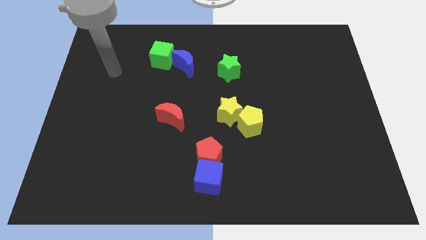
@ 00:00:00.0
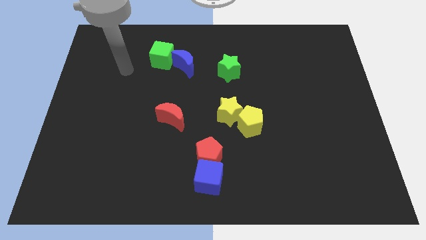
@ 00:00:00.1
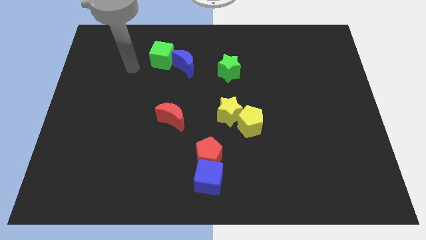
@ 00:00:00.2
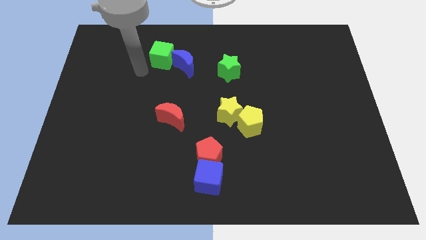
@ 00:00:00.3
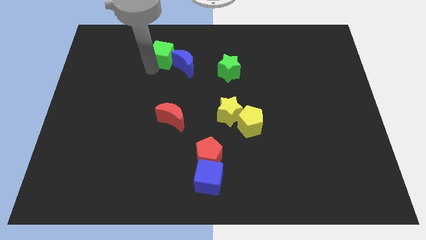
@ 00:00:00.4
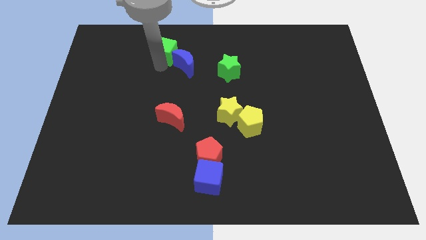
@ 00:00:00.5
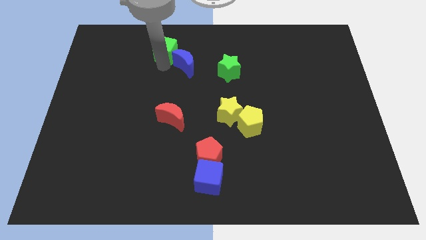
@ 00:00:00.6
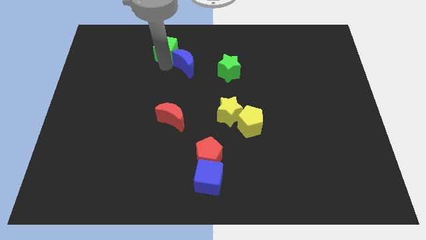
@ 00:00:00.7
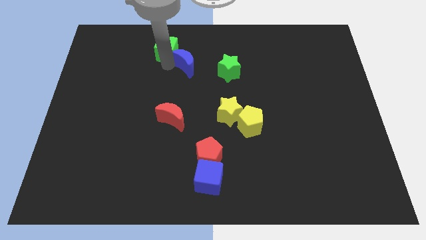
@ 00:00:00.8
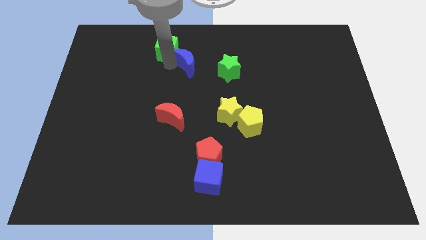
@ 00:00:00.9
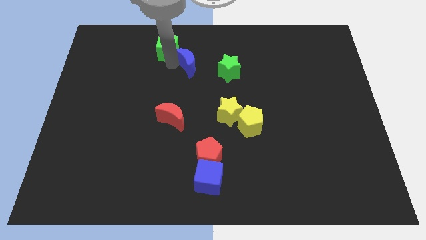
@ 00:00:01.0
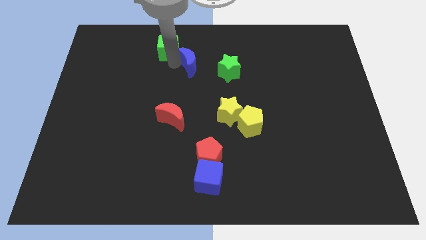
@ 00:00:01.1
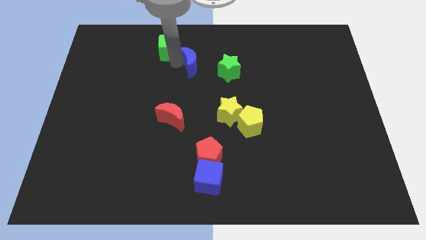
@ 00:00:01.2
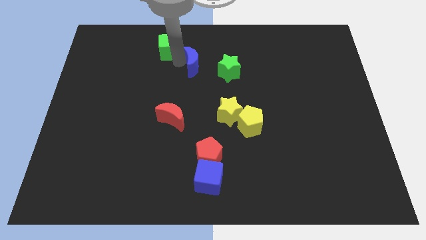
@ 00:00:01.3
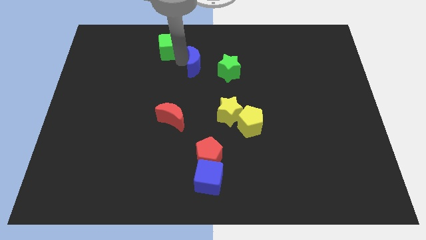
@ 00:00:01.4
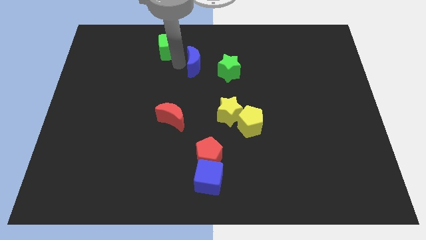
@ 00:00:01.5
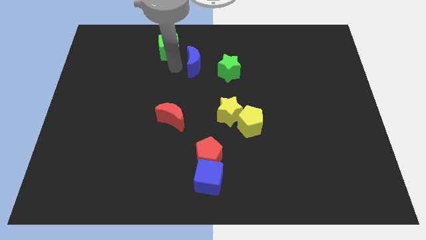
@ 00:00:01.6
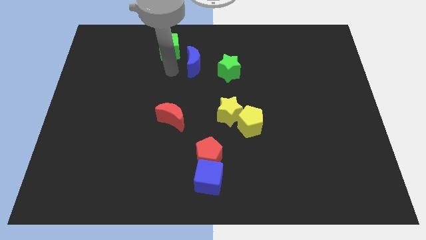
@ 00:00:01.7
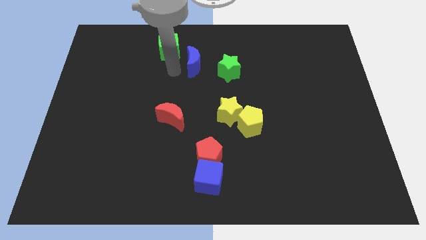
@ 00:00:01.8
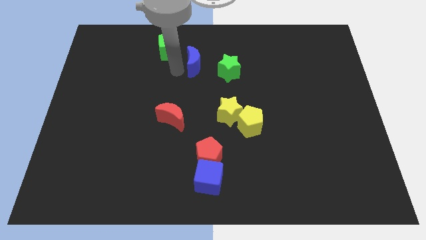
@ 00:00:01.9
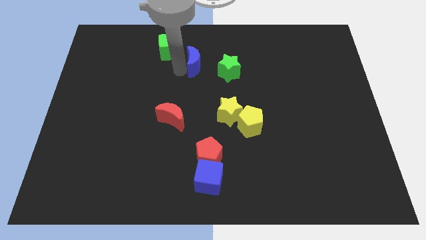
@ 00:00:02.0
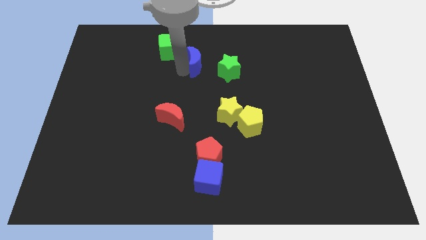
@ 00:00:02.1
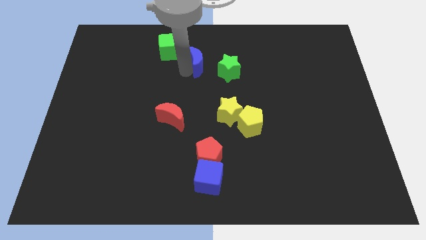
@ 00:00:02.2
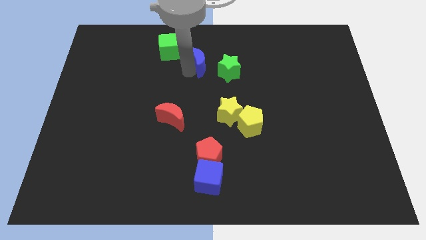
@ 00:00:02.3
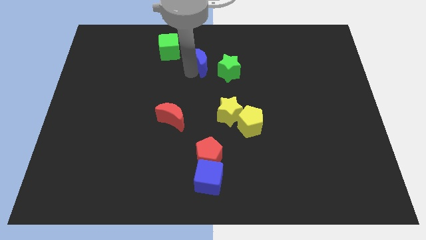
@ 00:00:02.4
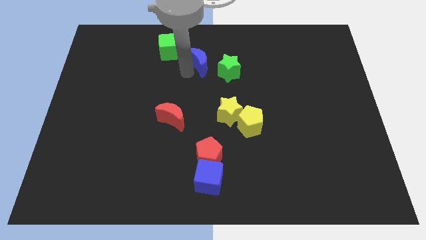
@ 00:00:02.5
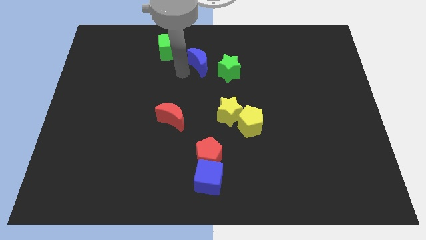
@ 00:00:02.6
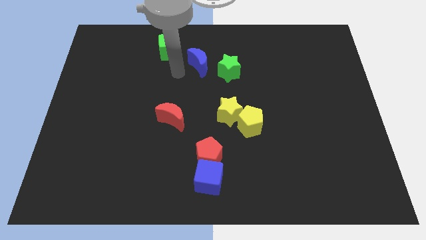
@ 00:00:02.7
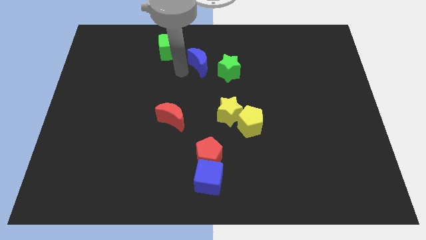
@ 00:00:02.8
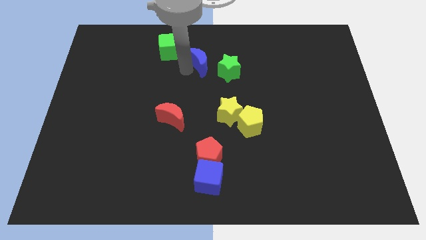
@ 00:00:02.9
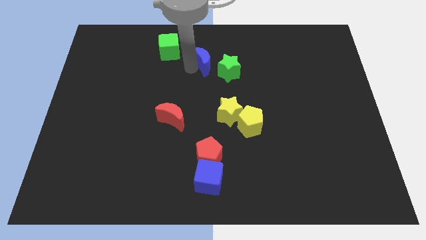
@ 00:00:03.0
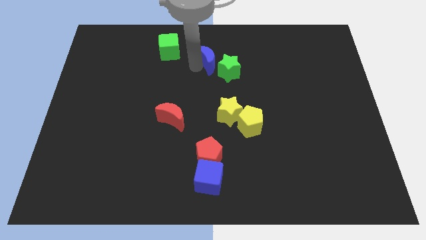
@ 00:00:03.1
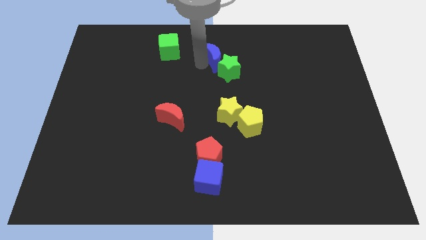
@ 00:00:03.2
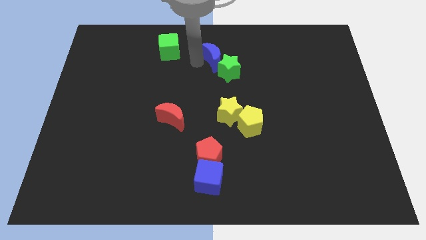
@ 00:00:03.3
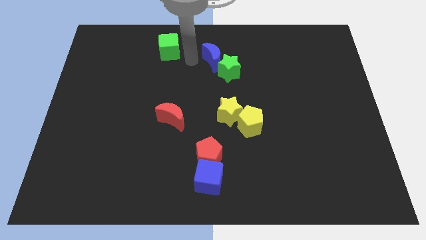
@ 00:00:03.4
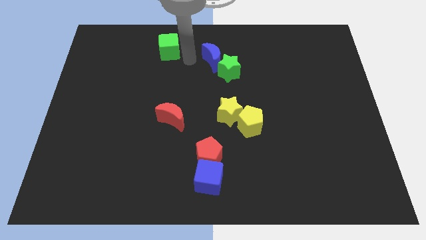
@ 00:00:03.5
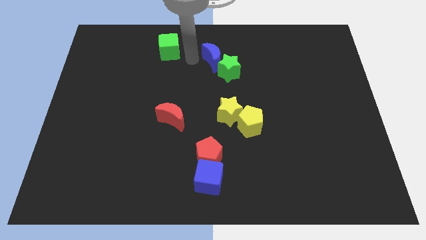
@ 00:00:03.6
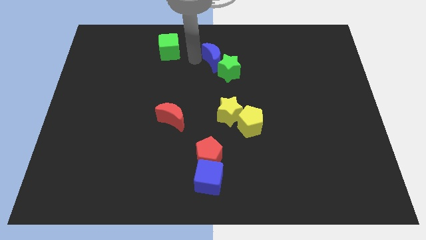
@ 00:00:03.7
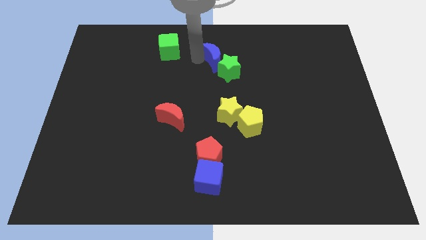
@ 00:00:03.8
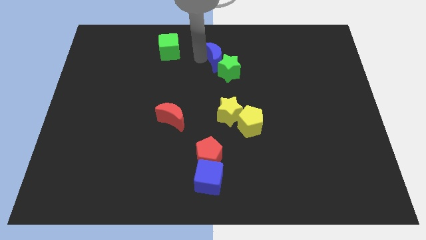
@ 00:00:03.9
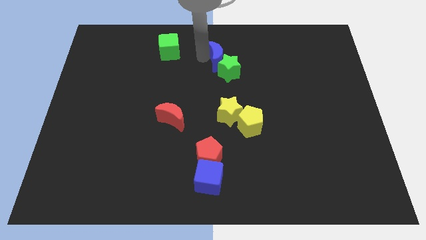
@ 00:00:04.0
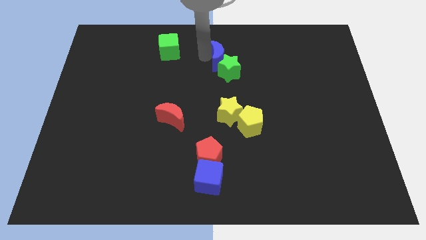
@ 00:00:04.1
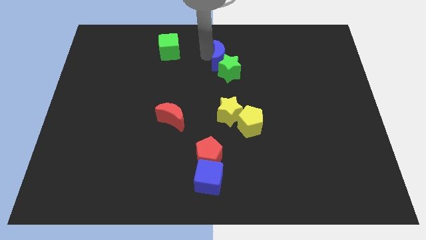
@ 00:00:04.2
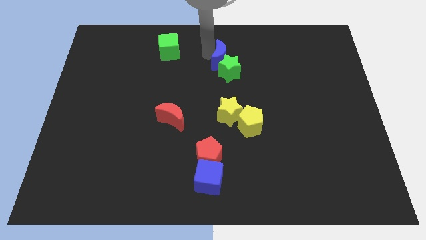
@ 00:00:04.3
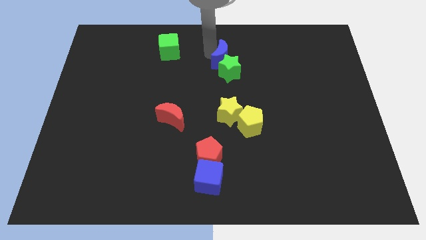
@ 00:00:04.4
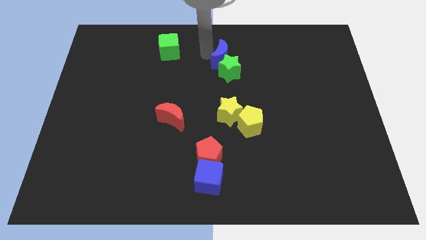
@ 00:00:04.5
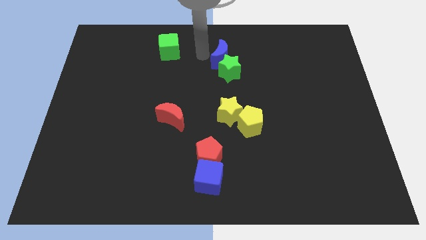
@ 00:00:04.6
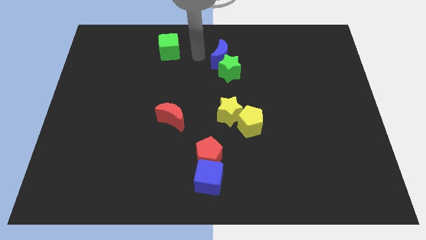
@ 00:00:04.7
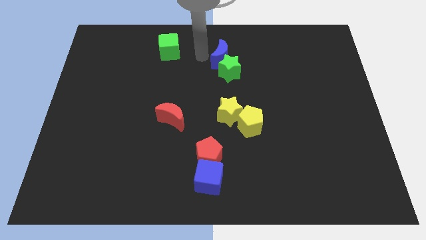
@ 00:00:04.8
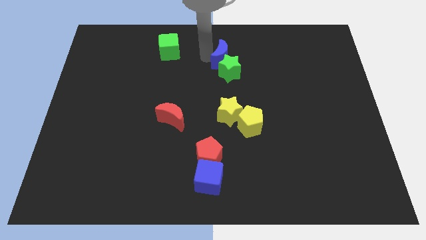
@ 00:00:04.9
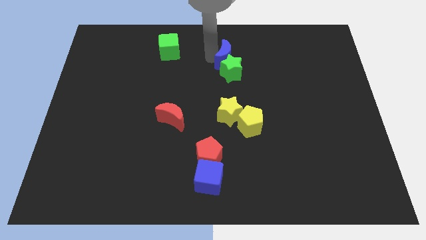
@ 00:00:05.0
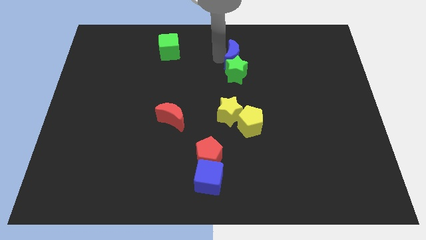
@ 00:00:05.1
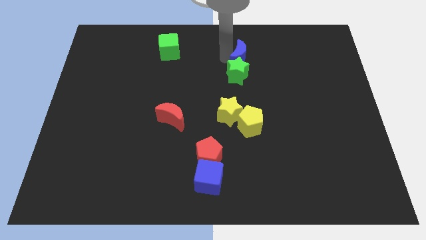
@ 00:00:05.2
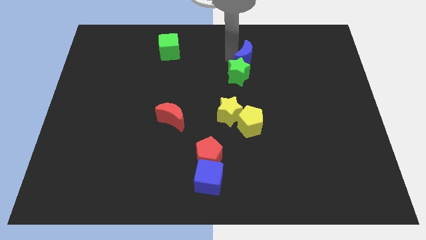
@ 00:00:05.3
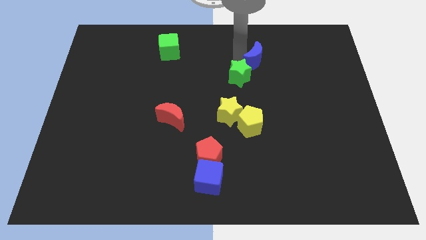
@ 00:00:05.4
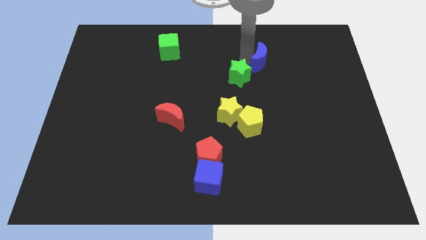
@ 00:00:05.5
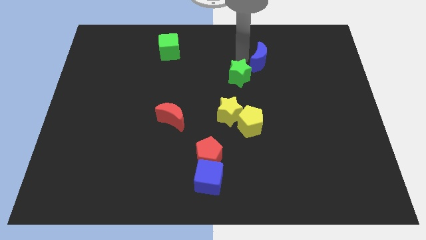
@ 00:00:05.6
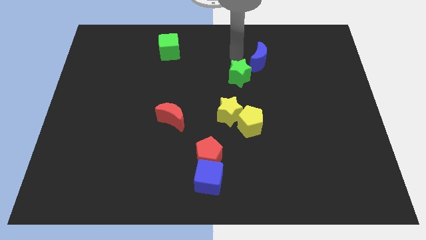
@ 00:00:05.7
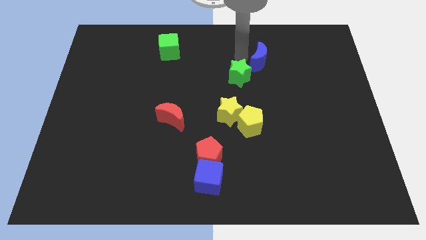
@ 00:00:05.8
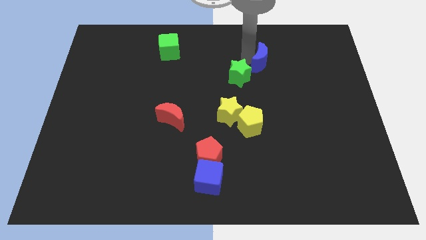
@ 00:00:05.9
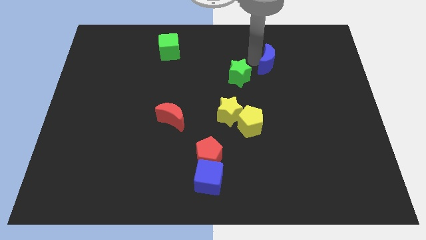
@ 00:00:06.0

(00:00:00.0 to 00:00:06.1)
move the blue moon to the right

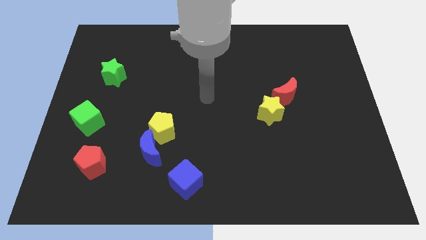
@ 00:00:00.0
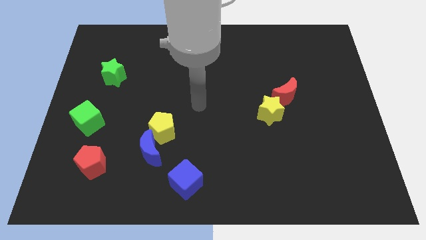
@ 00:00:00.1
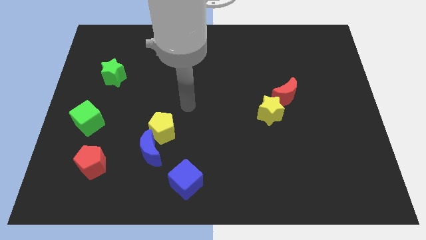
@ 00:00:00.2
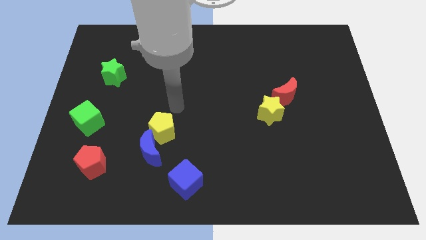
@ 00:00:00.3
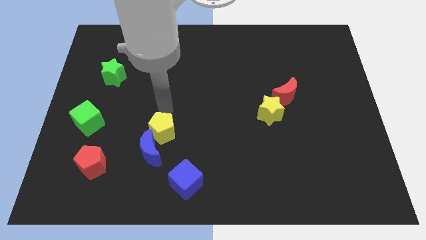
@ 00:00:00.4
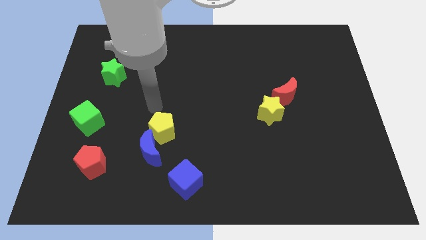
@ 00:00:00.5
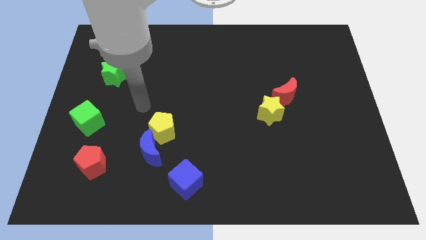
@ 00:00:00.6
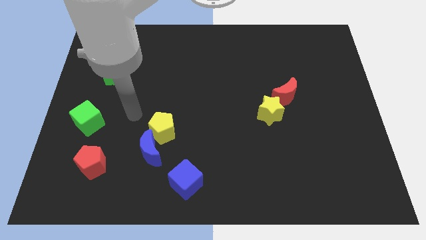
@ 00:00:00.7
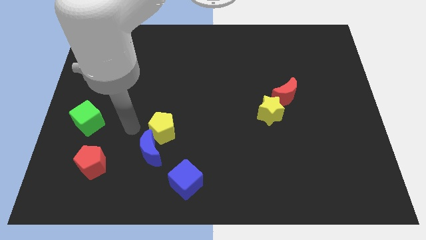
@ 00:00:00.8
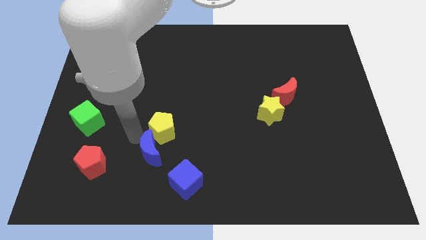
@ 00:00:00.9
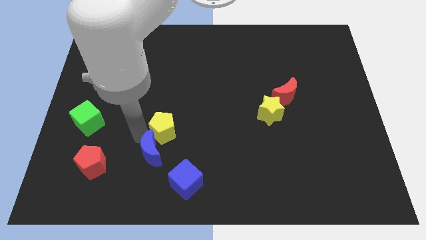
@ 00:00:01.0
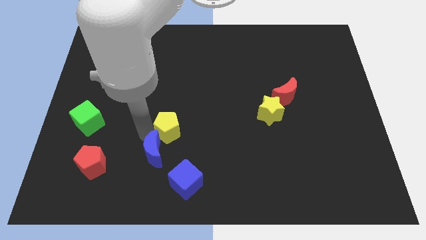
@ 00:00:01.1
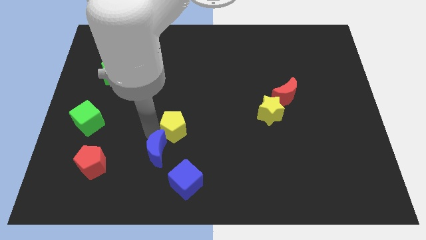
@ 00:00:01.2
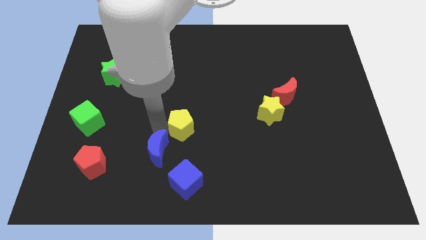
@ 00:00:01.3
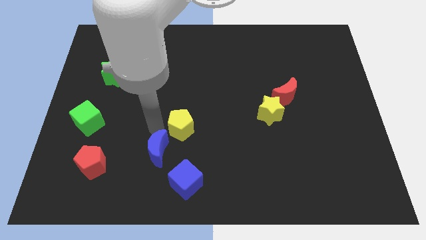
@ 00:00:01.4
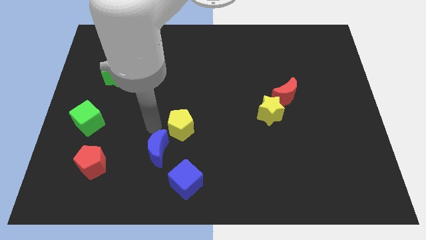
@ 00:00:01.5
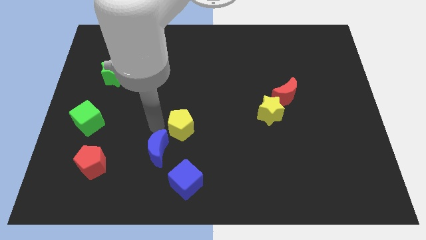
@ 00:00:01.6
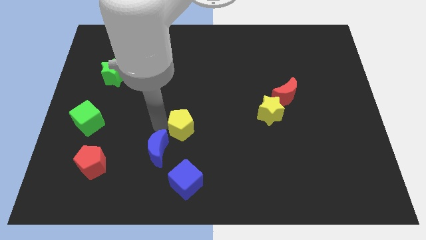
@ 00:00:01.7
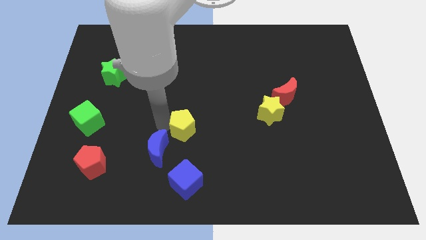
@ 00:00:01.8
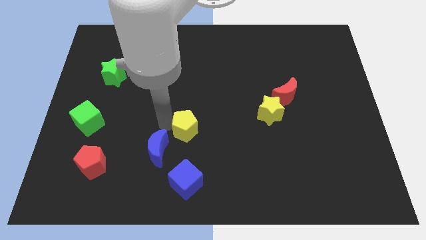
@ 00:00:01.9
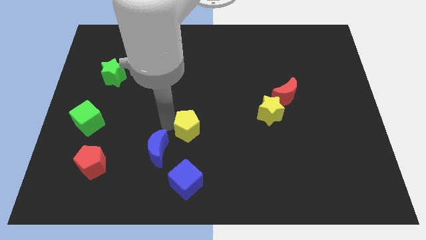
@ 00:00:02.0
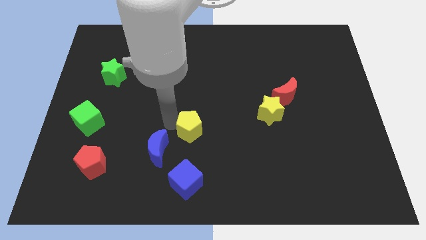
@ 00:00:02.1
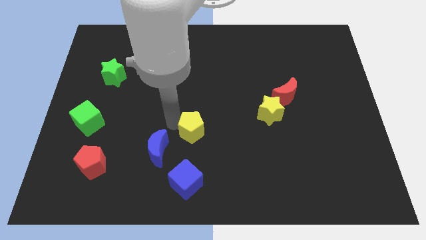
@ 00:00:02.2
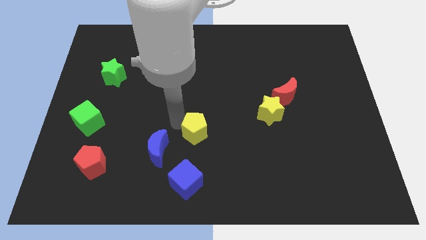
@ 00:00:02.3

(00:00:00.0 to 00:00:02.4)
push the yellow pentagon a bit to the right
